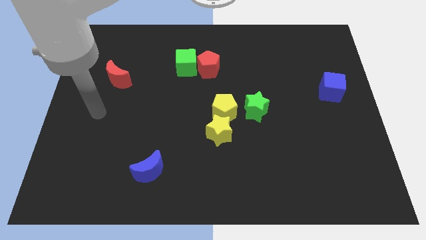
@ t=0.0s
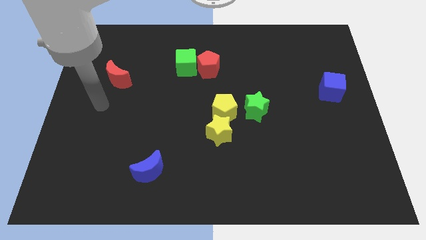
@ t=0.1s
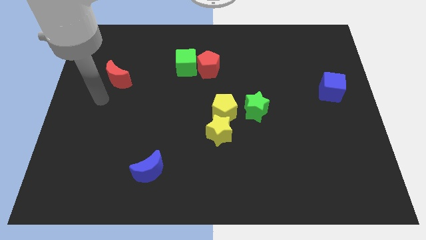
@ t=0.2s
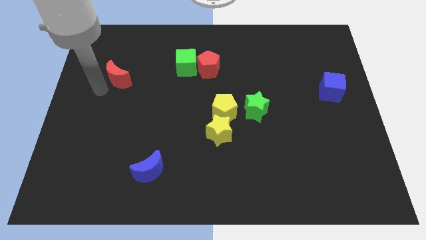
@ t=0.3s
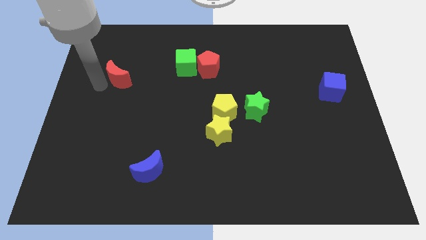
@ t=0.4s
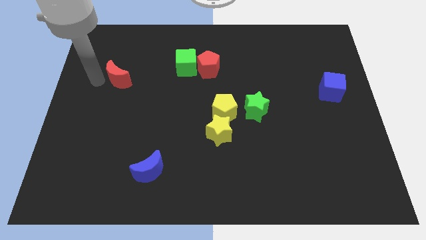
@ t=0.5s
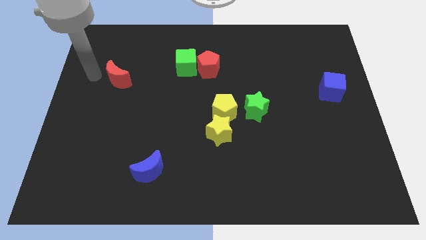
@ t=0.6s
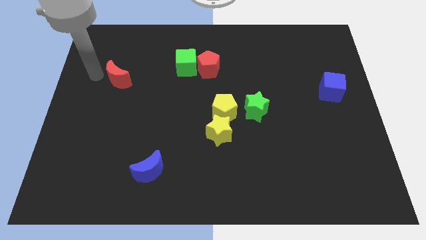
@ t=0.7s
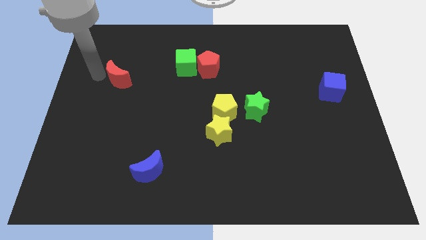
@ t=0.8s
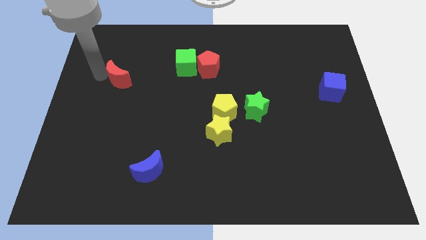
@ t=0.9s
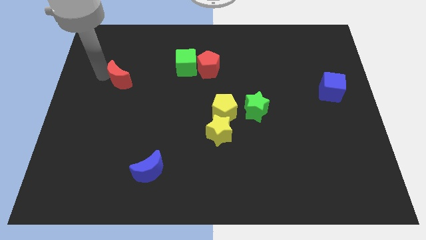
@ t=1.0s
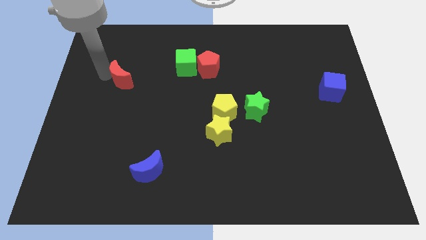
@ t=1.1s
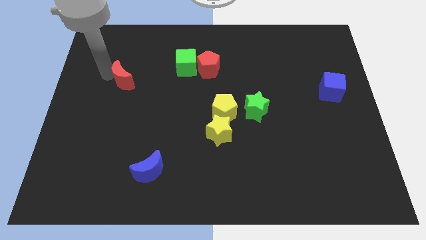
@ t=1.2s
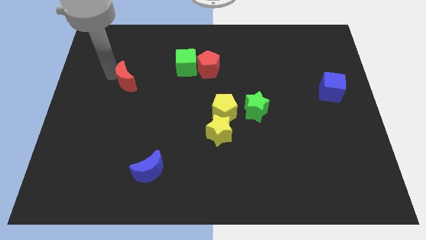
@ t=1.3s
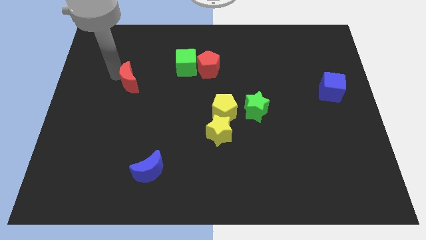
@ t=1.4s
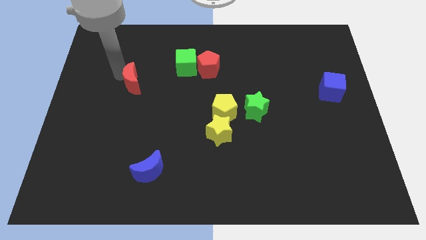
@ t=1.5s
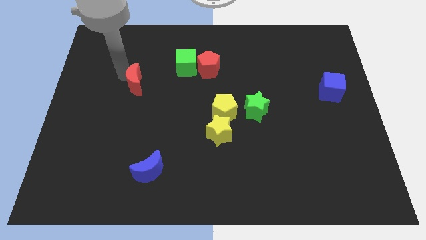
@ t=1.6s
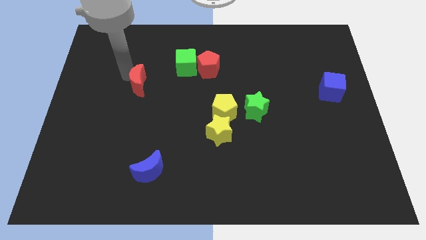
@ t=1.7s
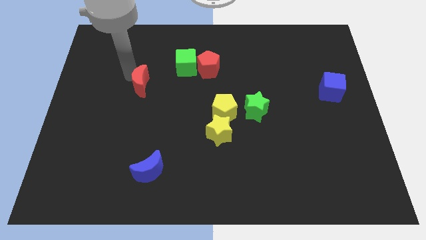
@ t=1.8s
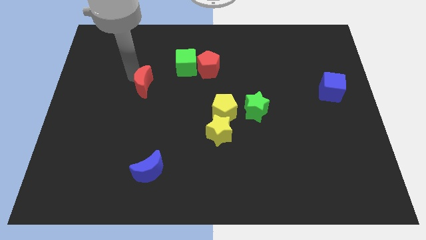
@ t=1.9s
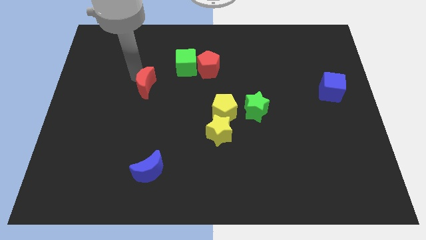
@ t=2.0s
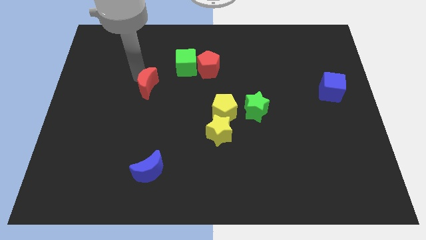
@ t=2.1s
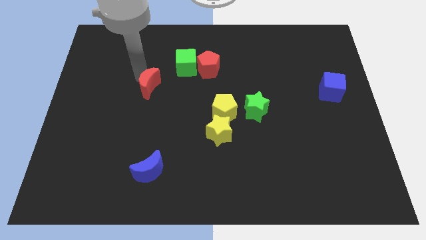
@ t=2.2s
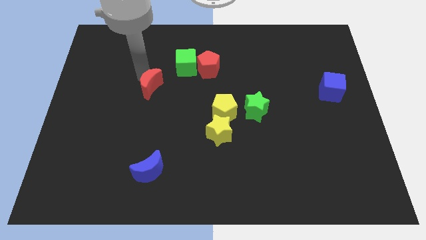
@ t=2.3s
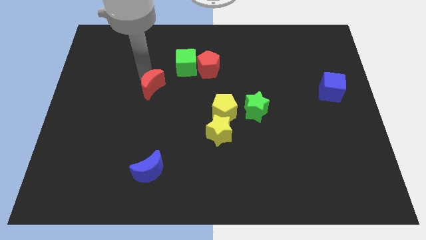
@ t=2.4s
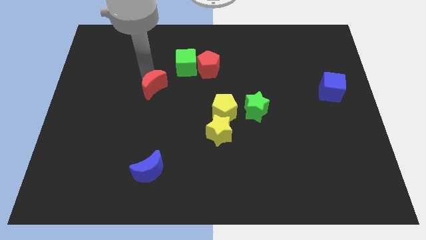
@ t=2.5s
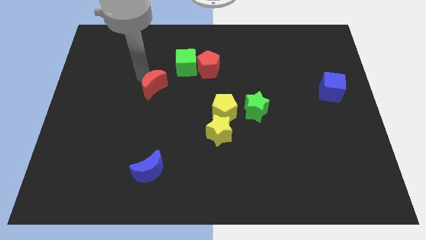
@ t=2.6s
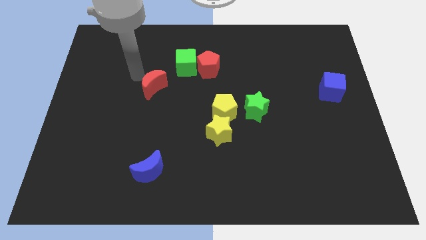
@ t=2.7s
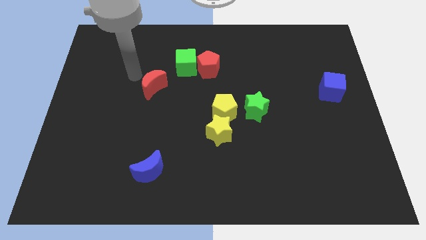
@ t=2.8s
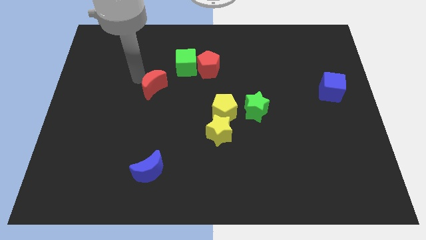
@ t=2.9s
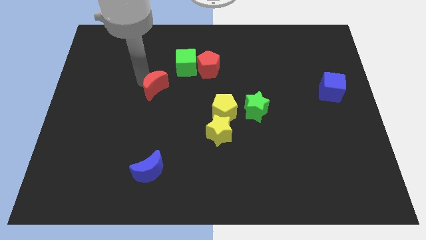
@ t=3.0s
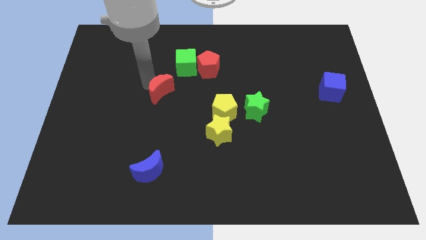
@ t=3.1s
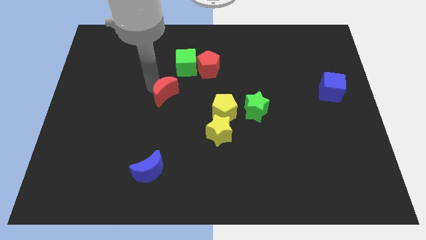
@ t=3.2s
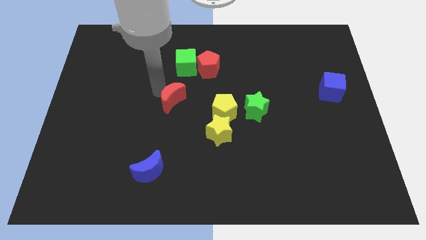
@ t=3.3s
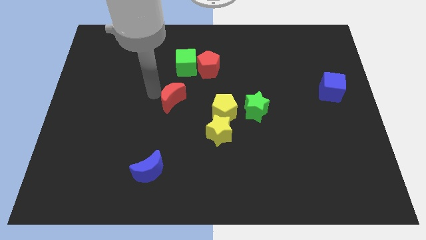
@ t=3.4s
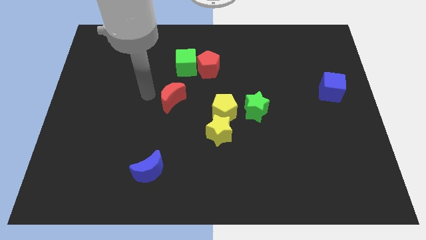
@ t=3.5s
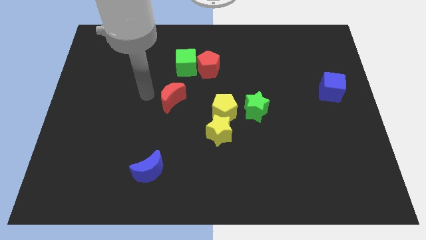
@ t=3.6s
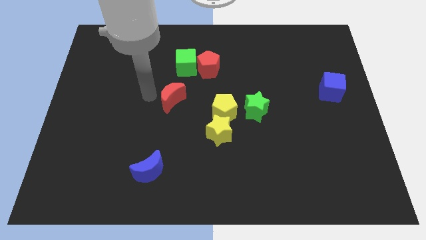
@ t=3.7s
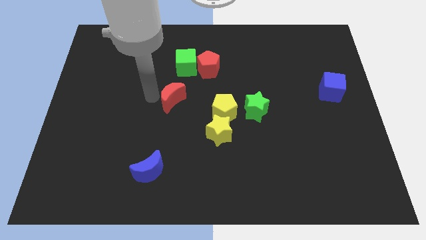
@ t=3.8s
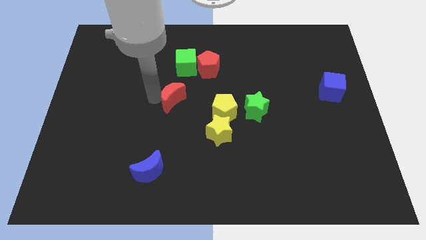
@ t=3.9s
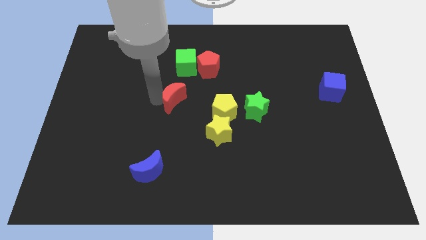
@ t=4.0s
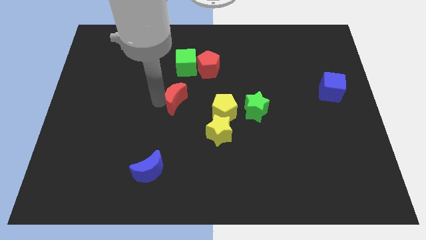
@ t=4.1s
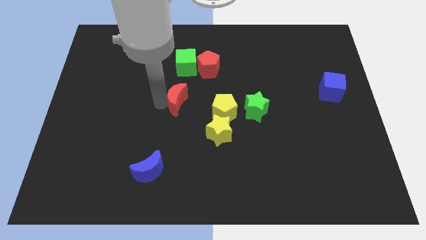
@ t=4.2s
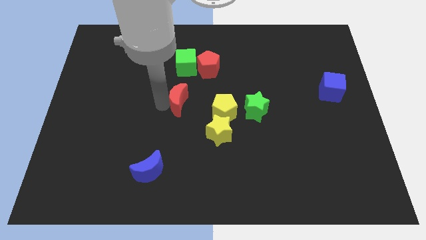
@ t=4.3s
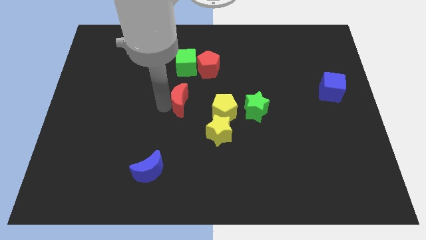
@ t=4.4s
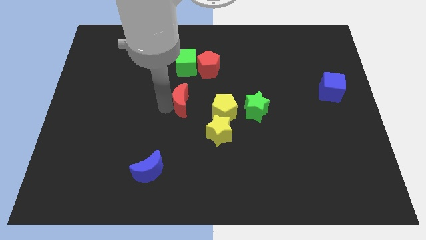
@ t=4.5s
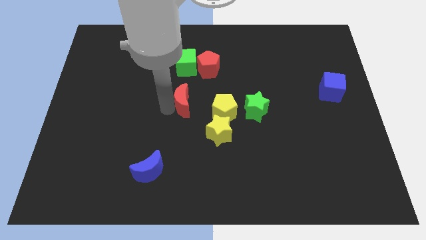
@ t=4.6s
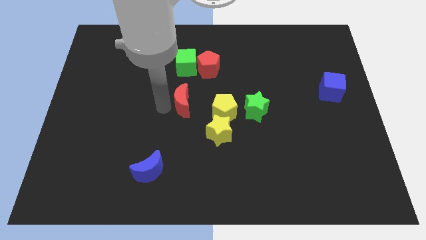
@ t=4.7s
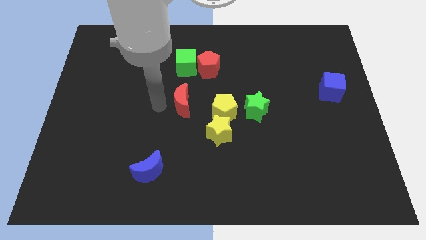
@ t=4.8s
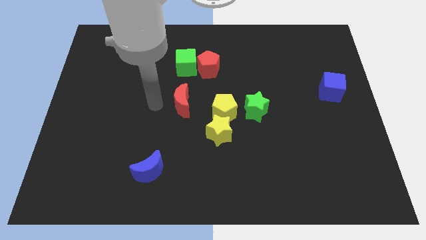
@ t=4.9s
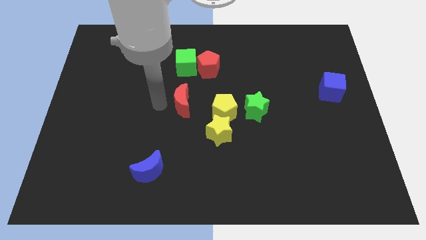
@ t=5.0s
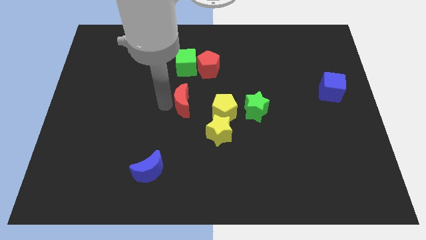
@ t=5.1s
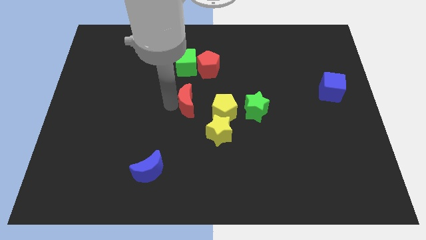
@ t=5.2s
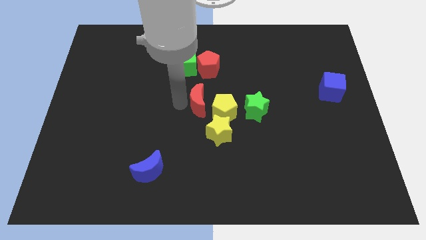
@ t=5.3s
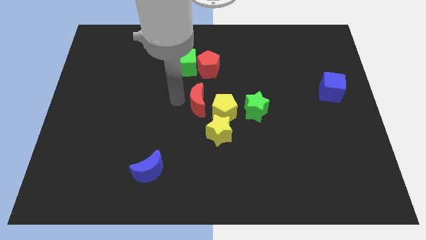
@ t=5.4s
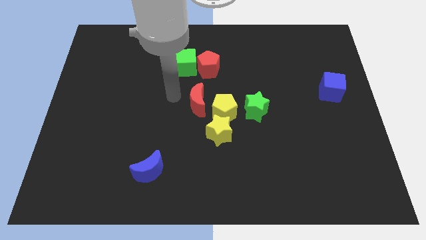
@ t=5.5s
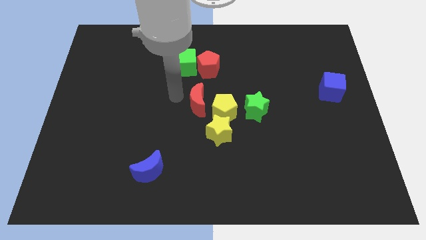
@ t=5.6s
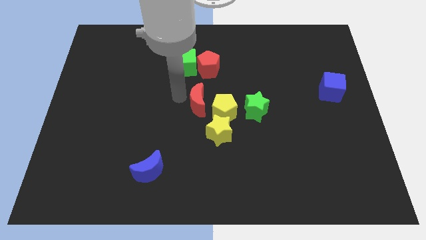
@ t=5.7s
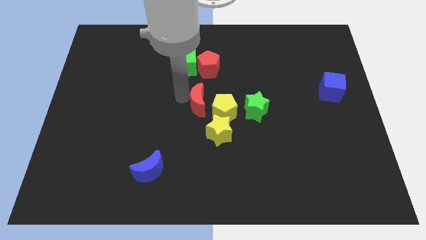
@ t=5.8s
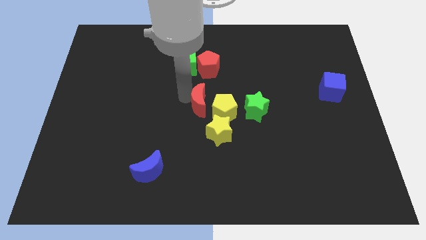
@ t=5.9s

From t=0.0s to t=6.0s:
slide the red moon close to the yellow pentagon

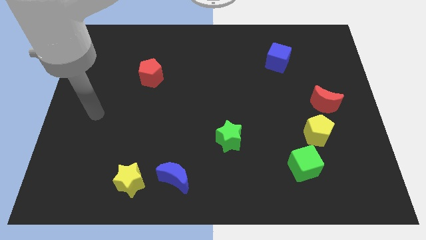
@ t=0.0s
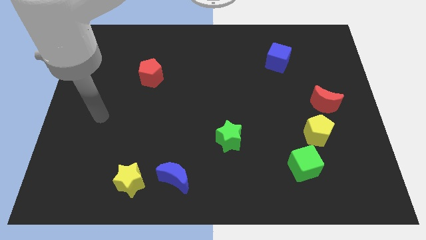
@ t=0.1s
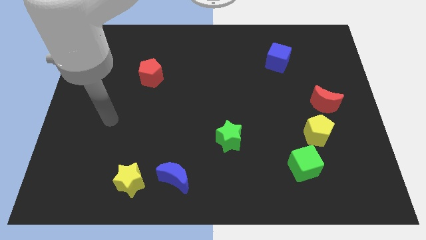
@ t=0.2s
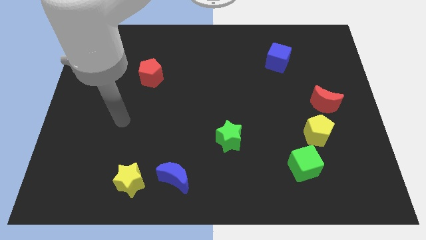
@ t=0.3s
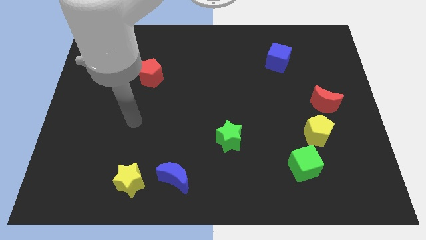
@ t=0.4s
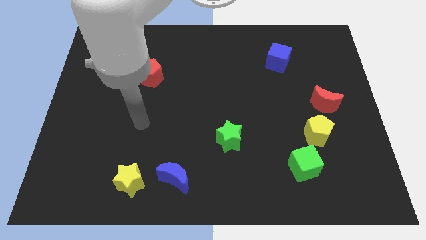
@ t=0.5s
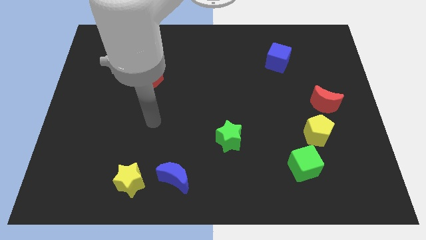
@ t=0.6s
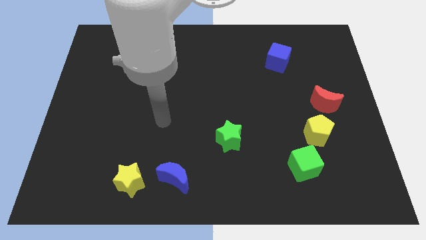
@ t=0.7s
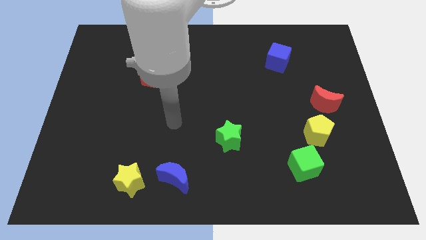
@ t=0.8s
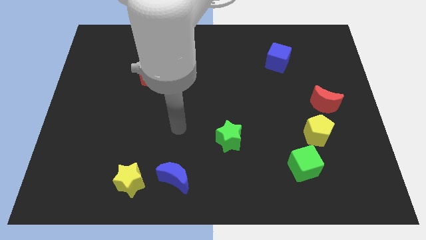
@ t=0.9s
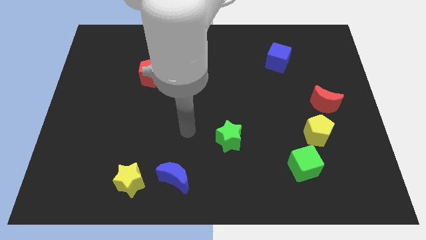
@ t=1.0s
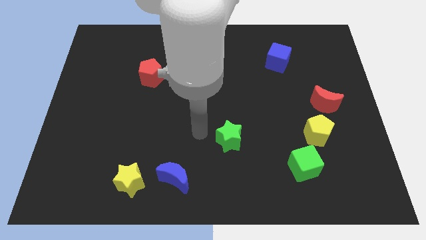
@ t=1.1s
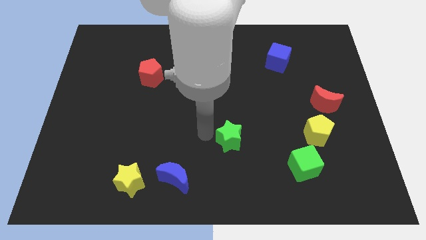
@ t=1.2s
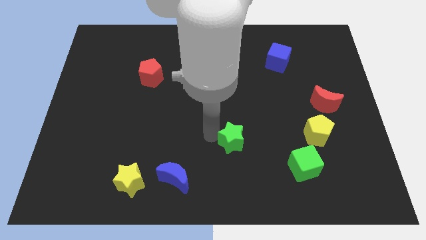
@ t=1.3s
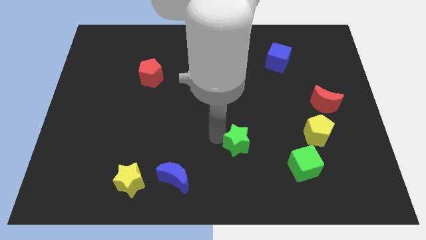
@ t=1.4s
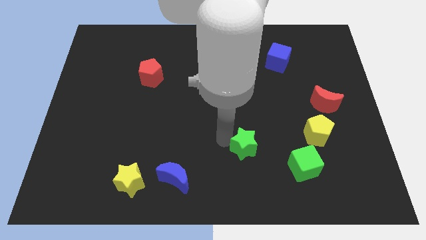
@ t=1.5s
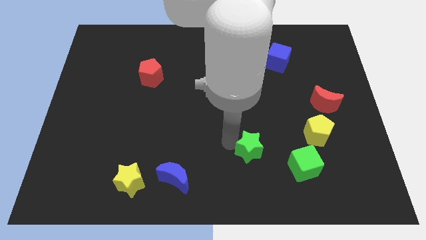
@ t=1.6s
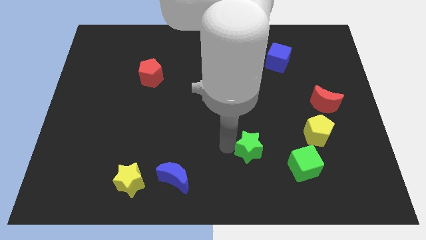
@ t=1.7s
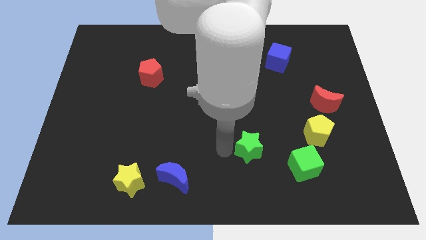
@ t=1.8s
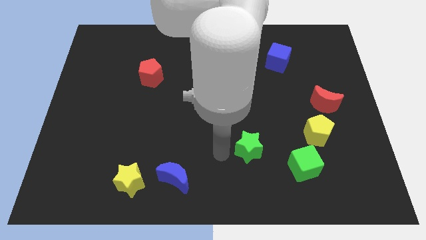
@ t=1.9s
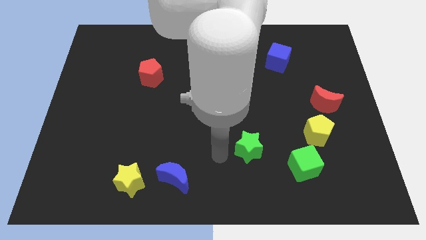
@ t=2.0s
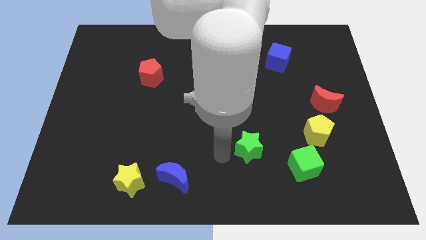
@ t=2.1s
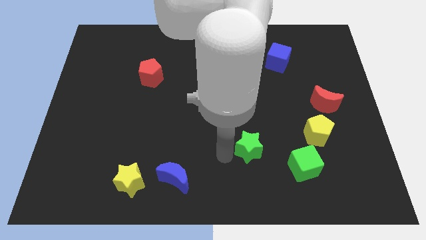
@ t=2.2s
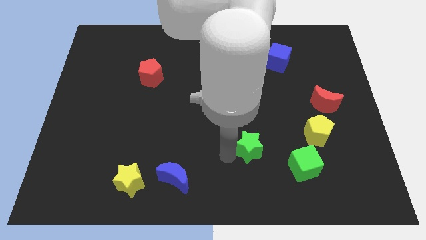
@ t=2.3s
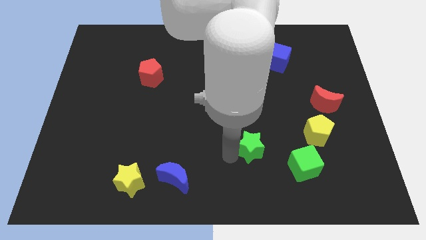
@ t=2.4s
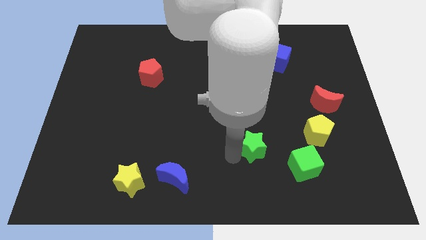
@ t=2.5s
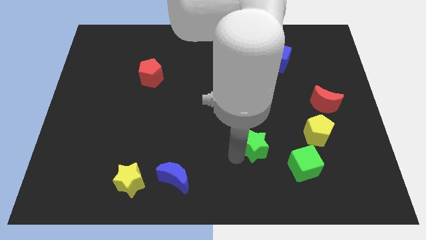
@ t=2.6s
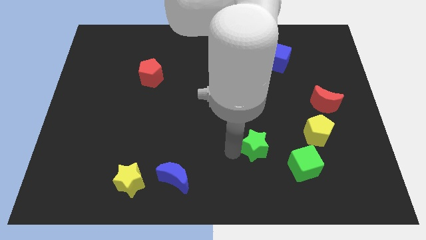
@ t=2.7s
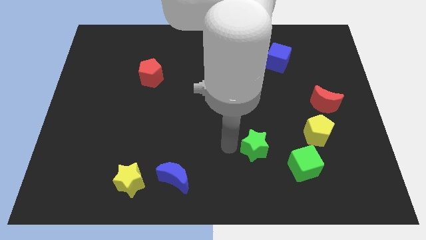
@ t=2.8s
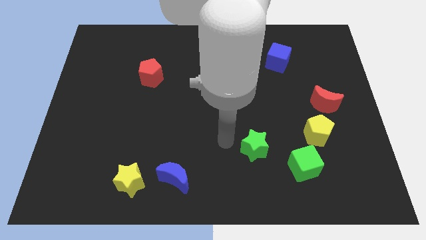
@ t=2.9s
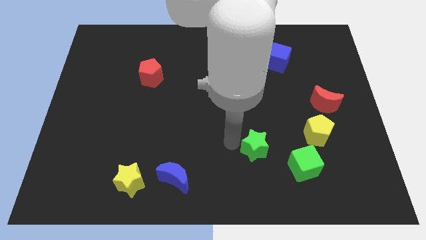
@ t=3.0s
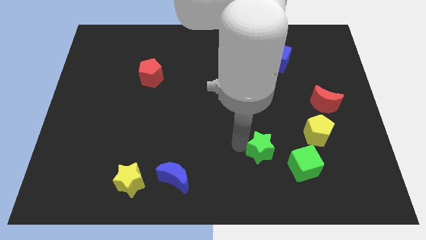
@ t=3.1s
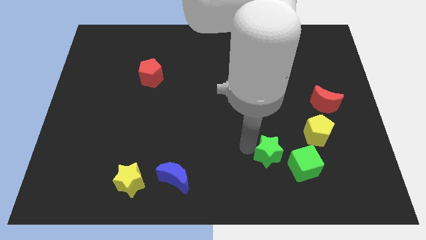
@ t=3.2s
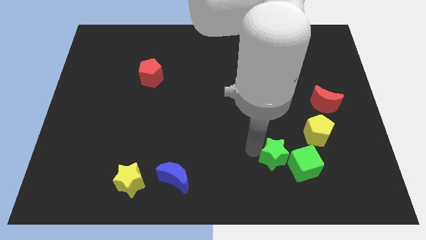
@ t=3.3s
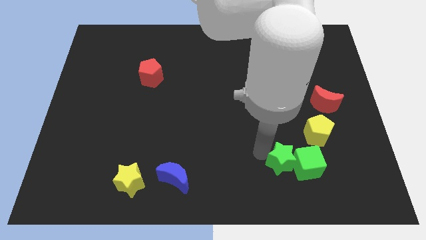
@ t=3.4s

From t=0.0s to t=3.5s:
put the green star close to the green cube
